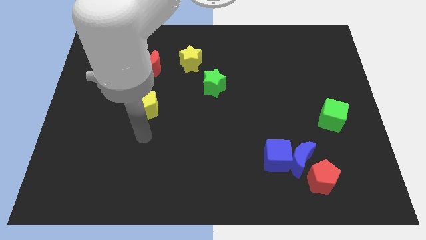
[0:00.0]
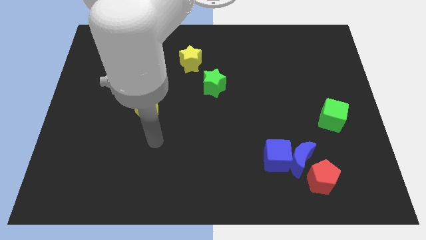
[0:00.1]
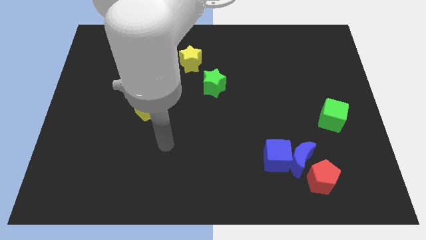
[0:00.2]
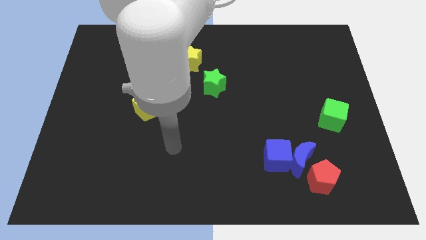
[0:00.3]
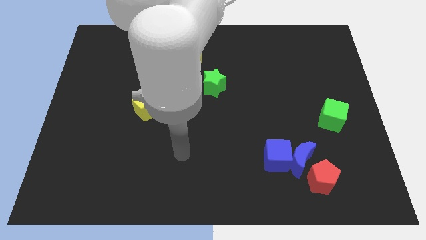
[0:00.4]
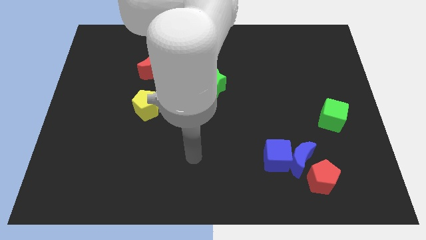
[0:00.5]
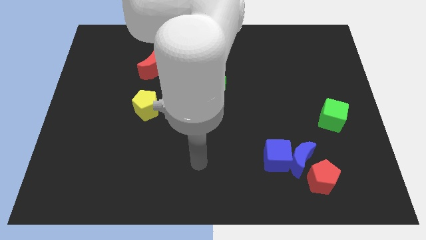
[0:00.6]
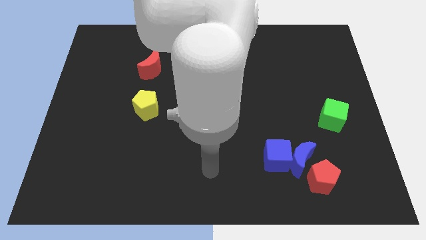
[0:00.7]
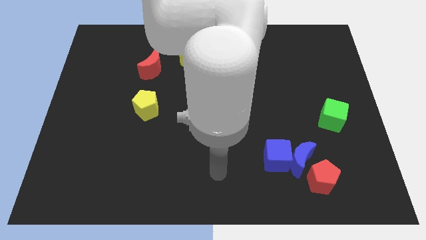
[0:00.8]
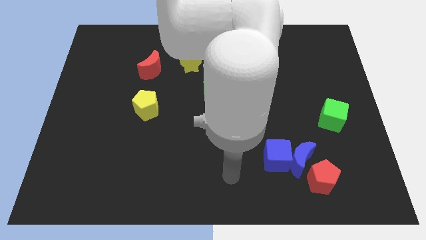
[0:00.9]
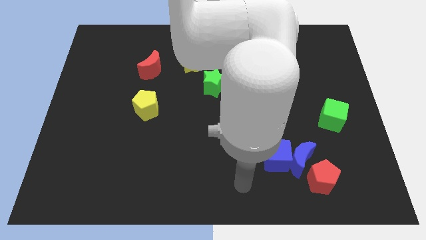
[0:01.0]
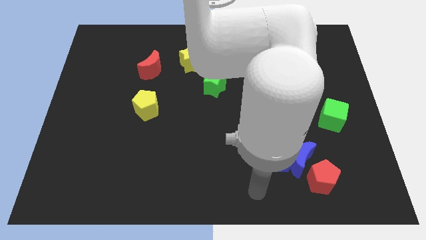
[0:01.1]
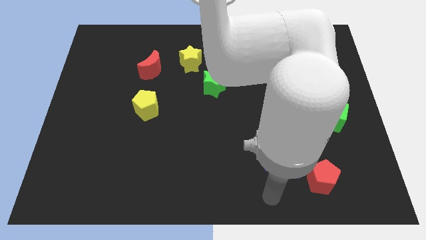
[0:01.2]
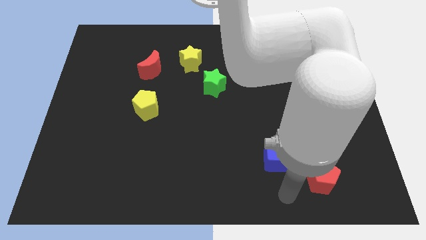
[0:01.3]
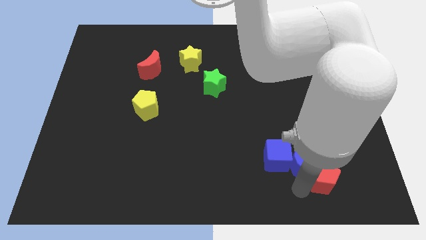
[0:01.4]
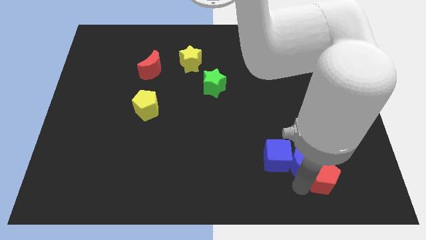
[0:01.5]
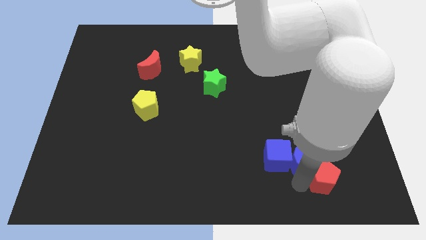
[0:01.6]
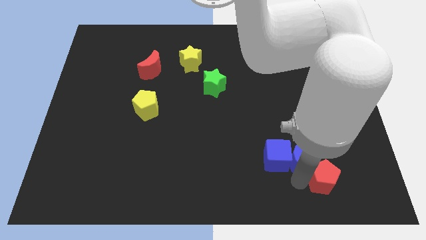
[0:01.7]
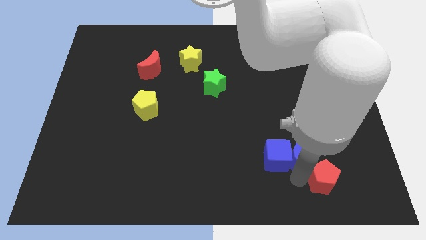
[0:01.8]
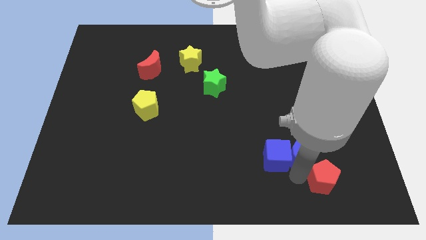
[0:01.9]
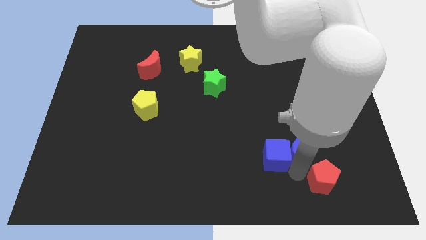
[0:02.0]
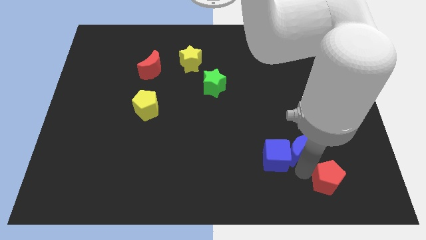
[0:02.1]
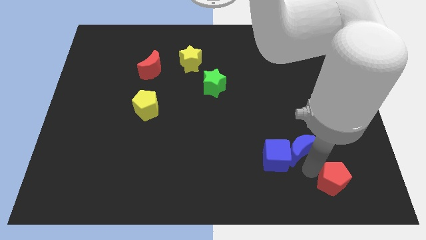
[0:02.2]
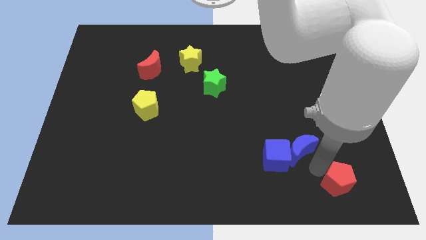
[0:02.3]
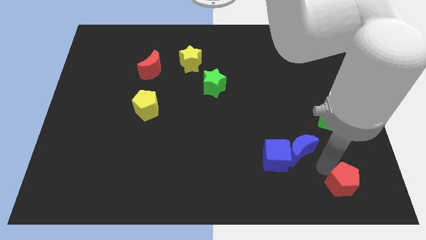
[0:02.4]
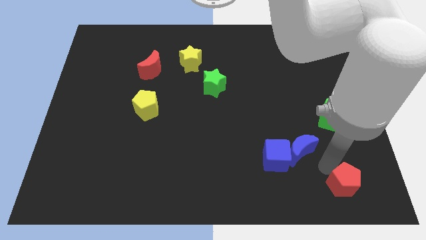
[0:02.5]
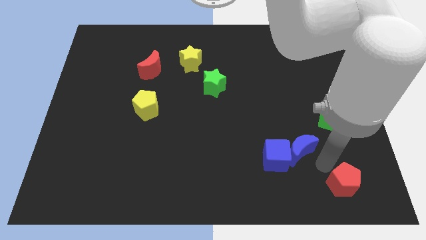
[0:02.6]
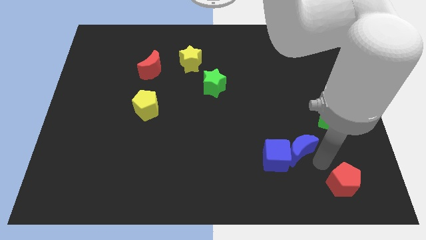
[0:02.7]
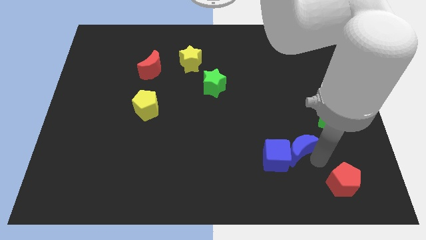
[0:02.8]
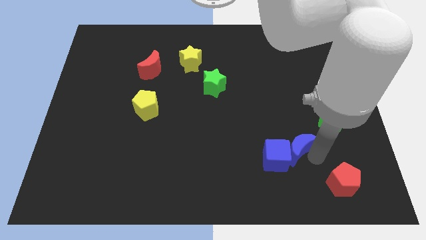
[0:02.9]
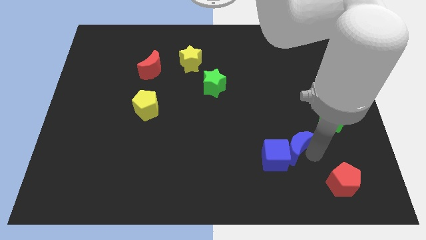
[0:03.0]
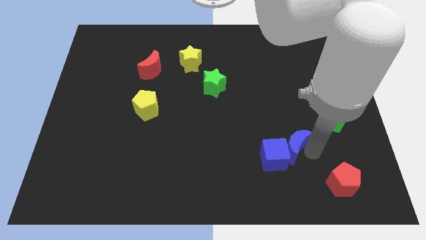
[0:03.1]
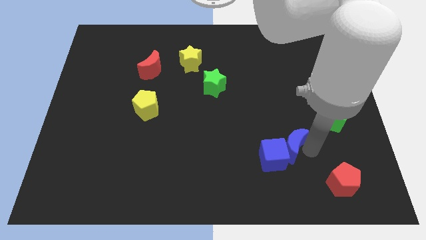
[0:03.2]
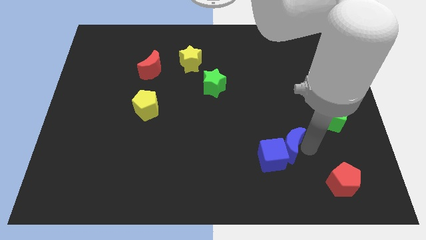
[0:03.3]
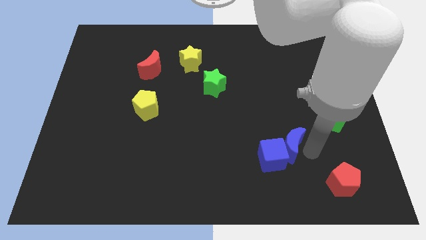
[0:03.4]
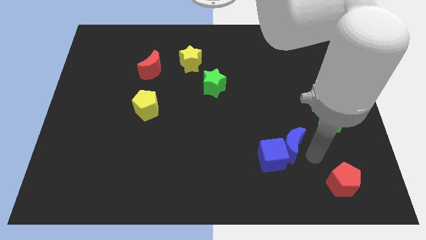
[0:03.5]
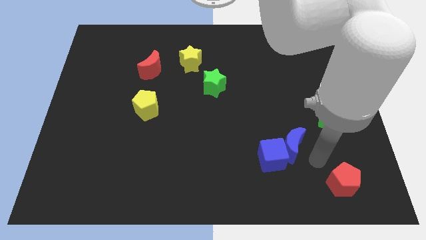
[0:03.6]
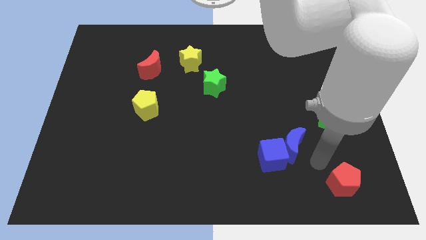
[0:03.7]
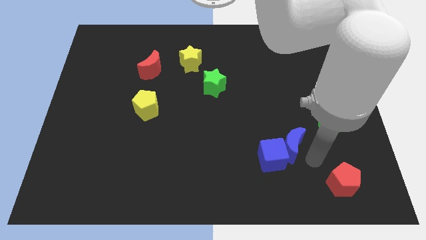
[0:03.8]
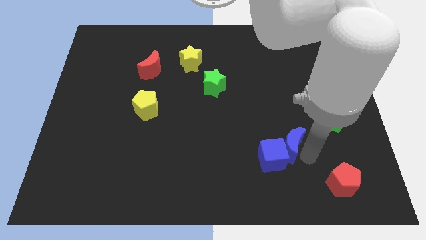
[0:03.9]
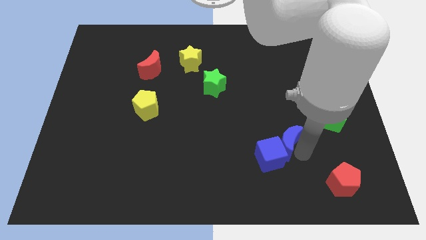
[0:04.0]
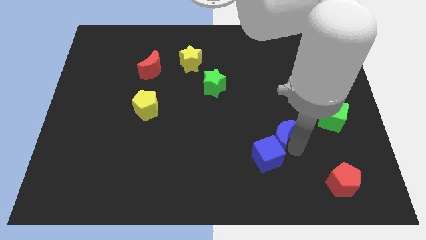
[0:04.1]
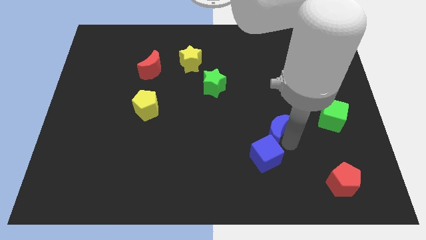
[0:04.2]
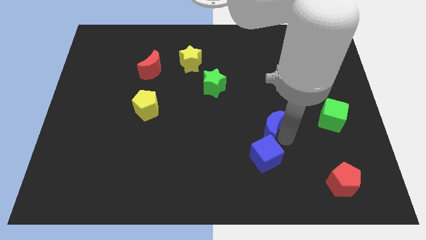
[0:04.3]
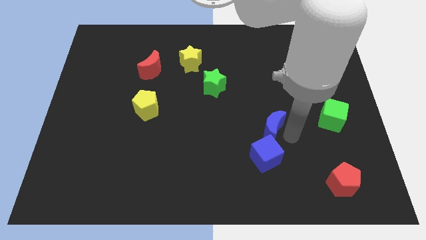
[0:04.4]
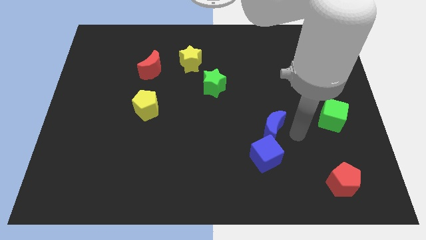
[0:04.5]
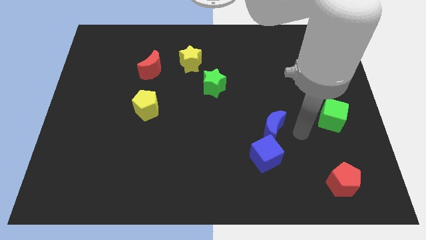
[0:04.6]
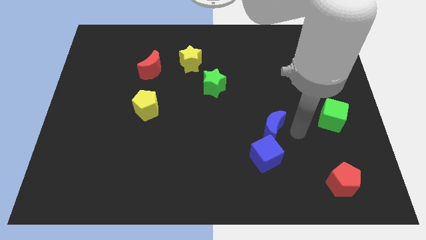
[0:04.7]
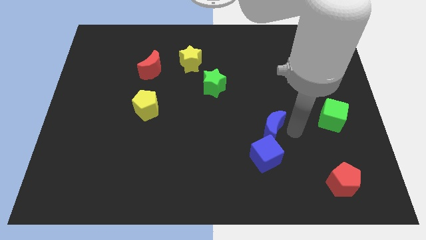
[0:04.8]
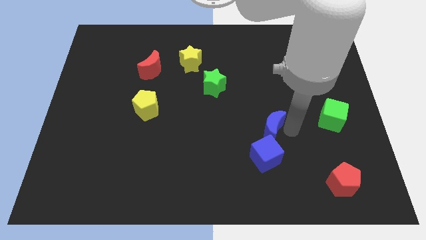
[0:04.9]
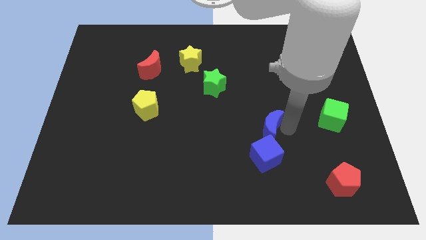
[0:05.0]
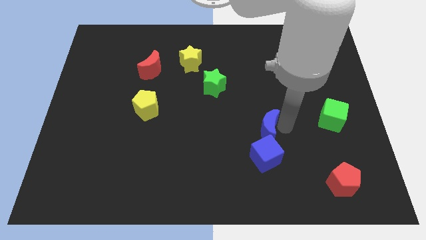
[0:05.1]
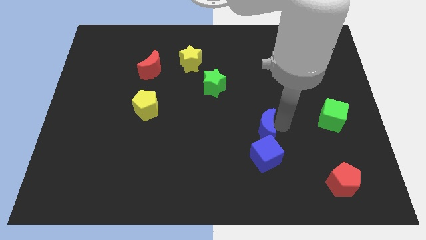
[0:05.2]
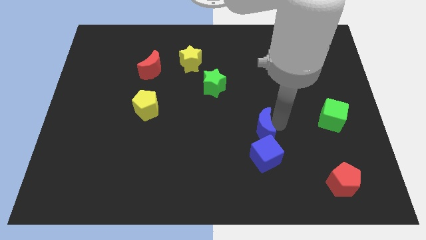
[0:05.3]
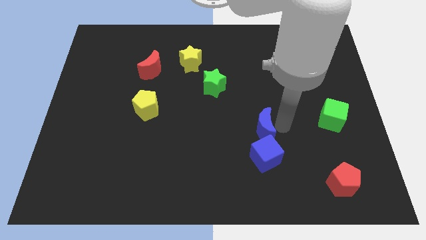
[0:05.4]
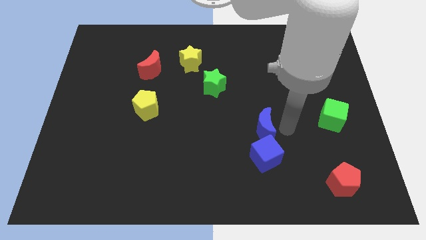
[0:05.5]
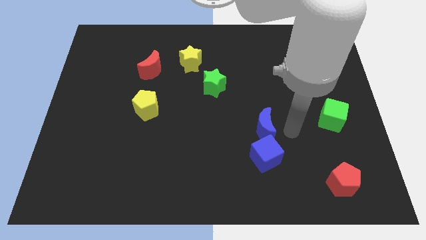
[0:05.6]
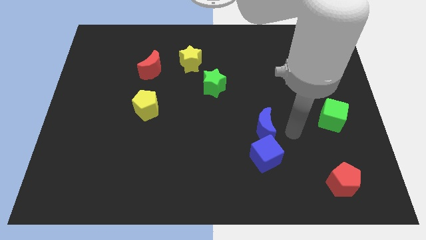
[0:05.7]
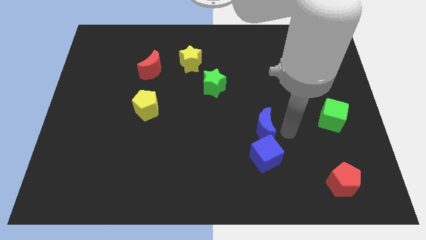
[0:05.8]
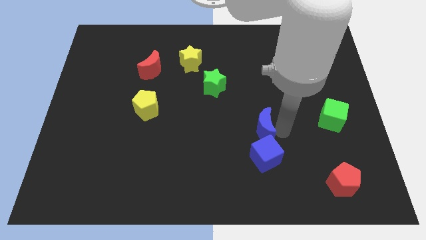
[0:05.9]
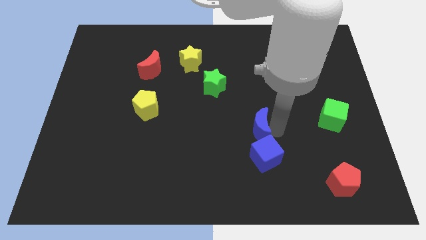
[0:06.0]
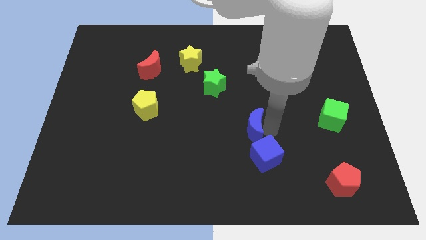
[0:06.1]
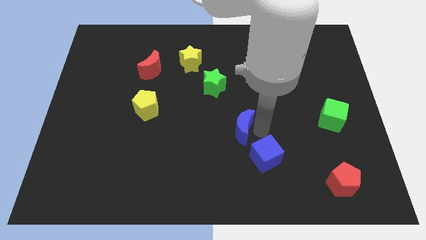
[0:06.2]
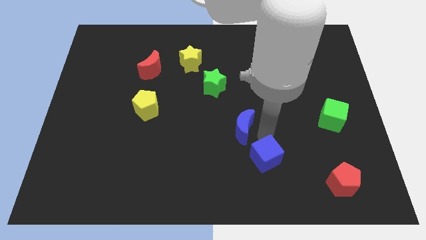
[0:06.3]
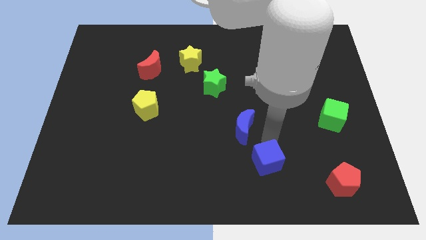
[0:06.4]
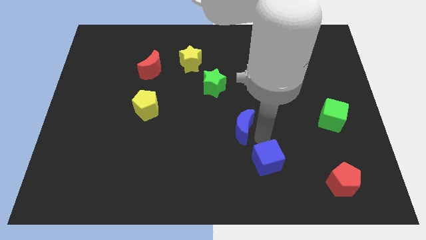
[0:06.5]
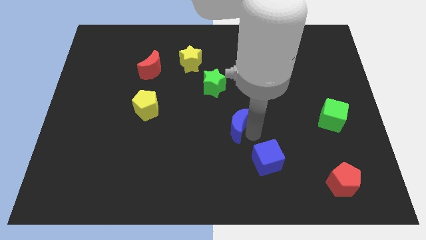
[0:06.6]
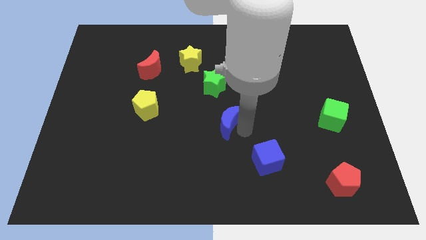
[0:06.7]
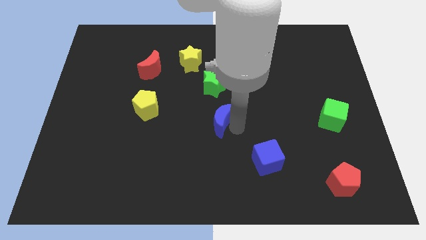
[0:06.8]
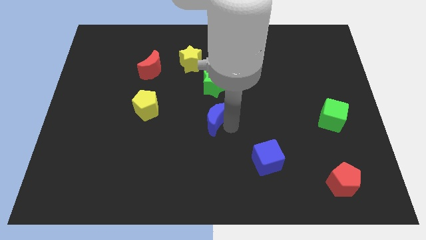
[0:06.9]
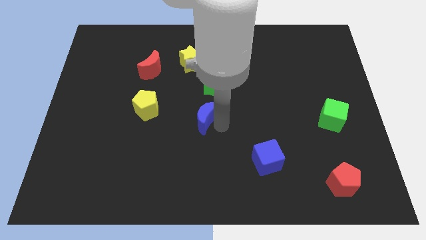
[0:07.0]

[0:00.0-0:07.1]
move the blue moon diagonally up and left

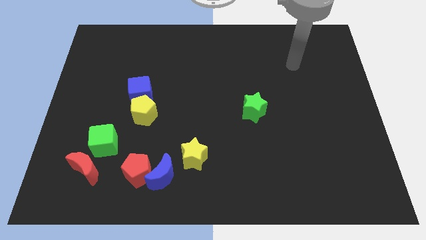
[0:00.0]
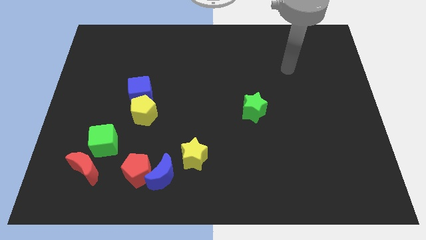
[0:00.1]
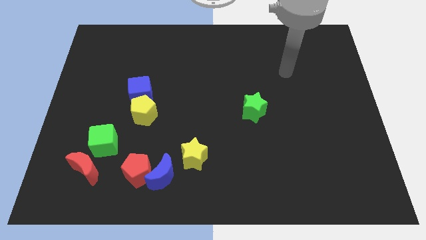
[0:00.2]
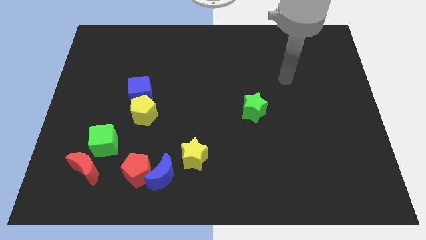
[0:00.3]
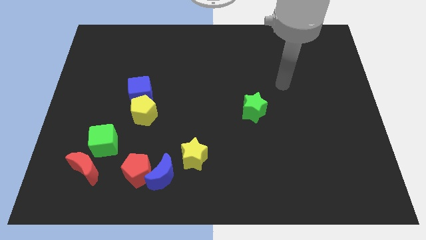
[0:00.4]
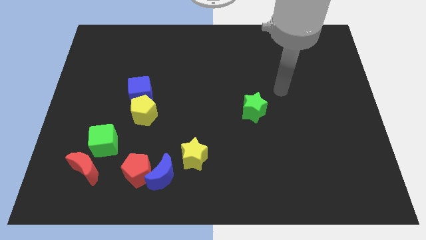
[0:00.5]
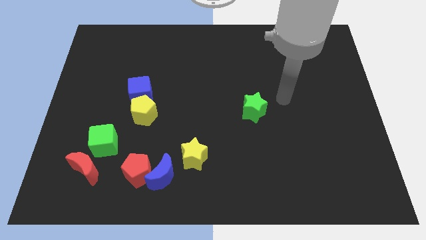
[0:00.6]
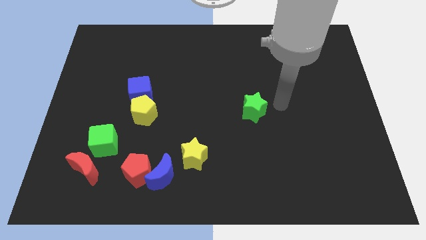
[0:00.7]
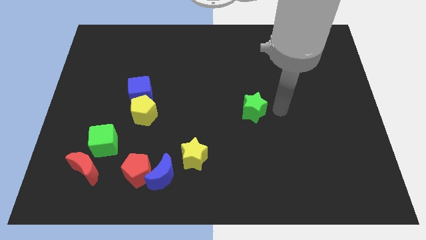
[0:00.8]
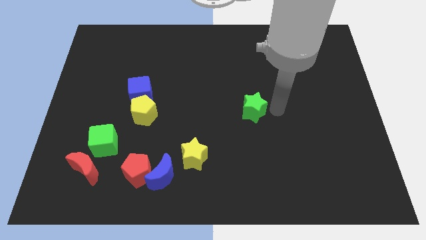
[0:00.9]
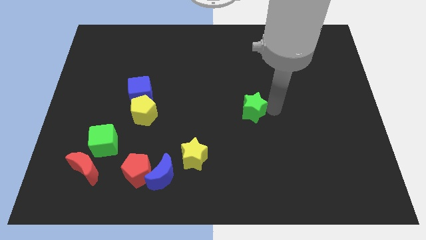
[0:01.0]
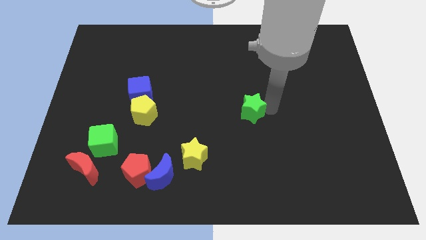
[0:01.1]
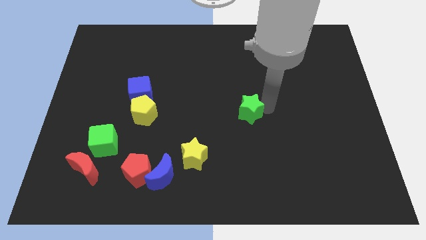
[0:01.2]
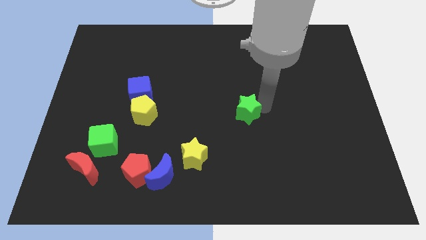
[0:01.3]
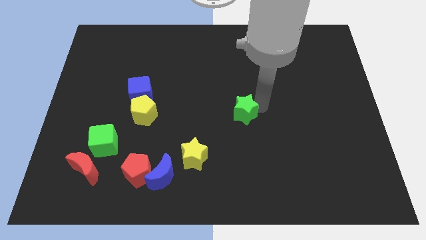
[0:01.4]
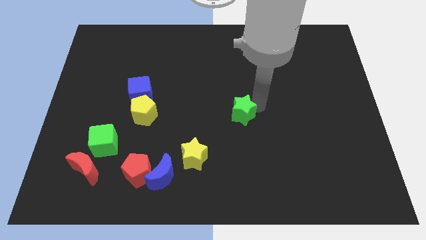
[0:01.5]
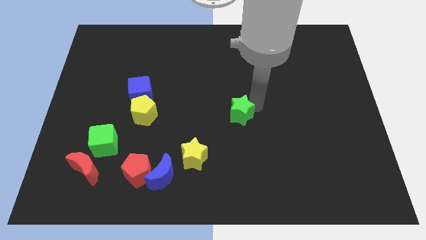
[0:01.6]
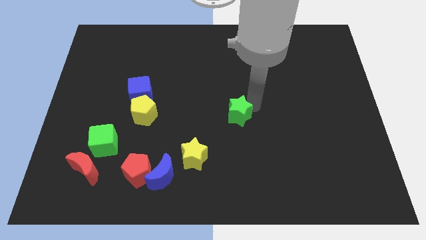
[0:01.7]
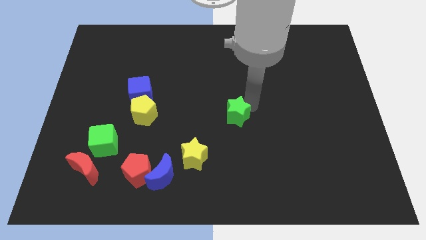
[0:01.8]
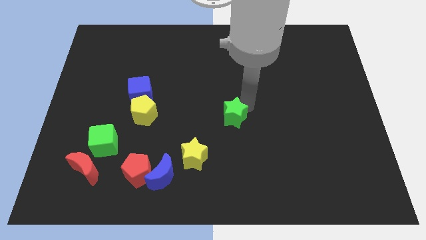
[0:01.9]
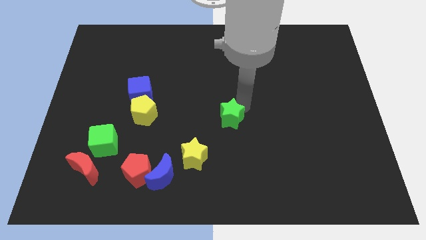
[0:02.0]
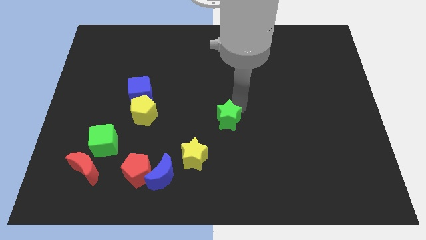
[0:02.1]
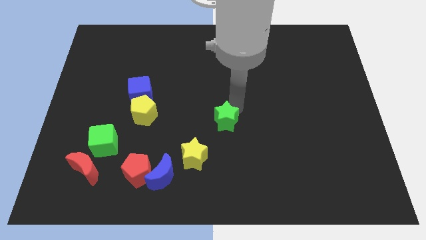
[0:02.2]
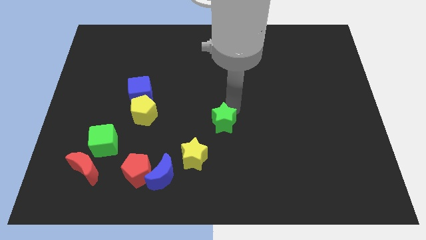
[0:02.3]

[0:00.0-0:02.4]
slightly push the green star left
